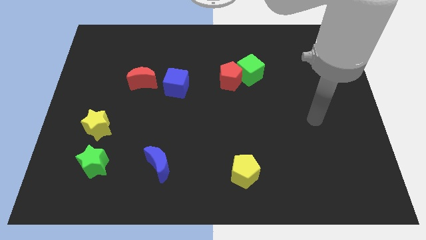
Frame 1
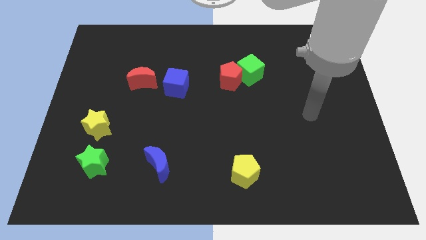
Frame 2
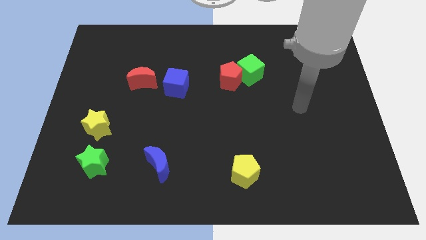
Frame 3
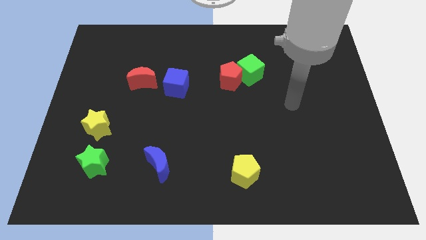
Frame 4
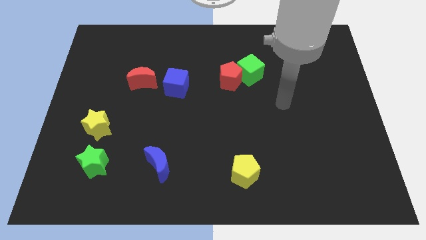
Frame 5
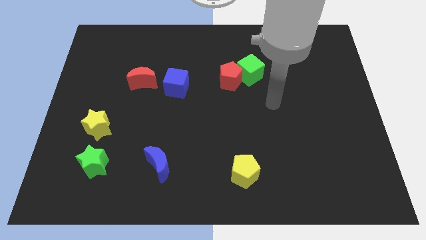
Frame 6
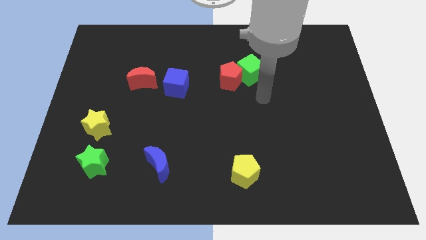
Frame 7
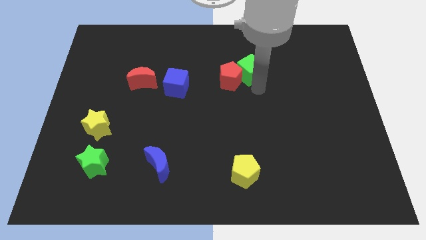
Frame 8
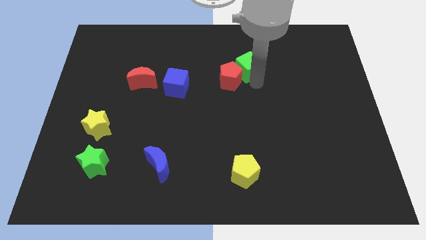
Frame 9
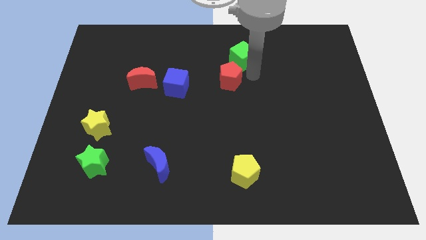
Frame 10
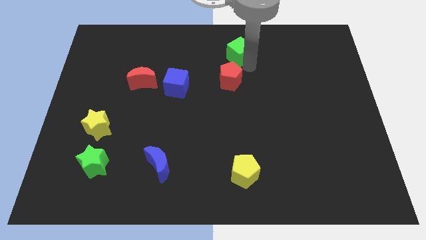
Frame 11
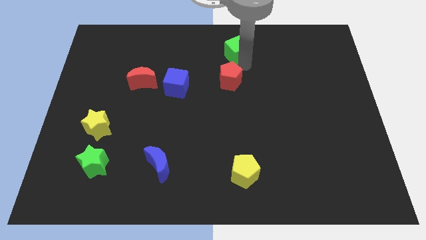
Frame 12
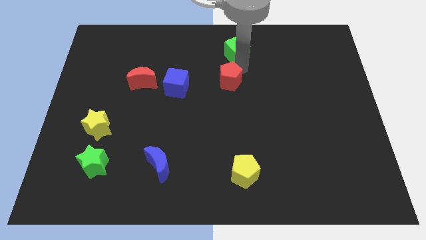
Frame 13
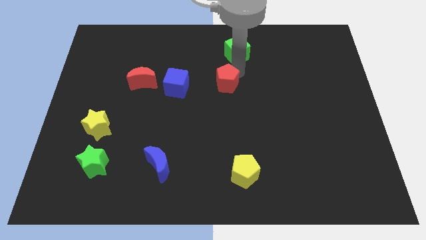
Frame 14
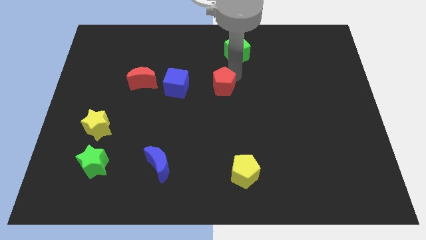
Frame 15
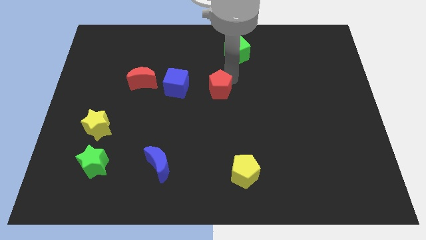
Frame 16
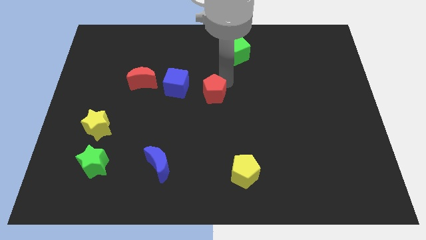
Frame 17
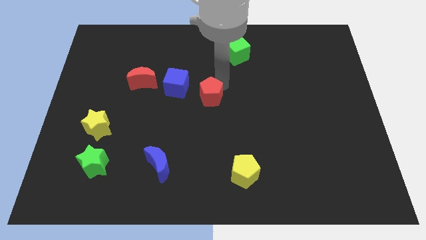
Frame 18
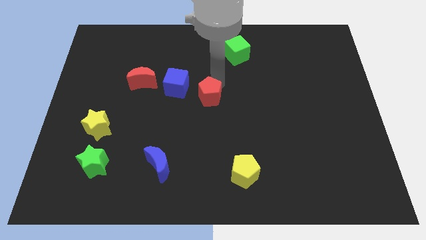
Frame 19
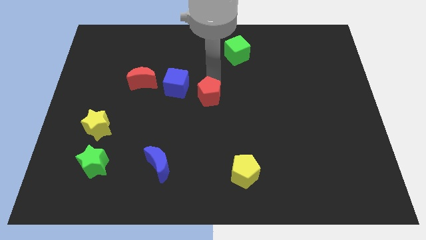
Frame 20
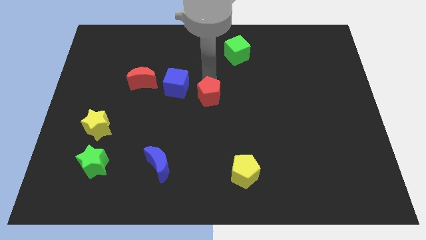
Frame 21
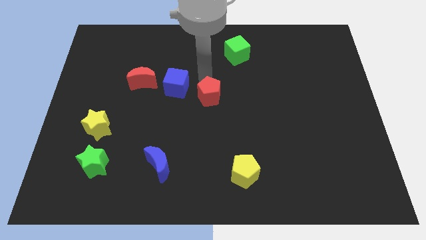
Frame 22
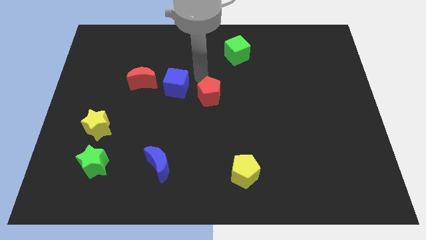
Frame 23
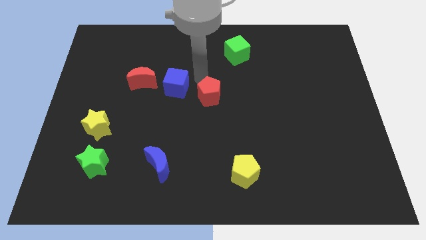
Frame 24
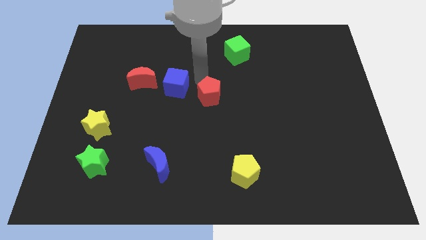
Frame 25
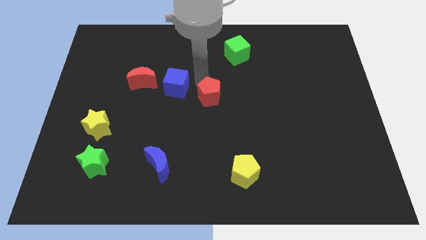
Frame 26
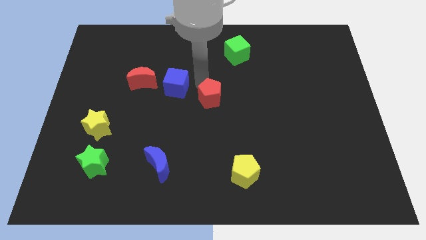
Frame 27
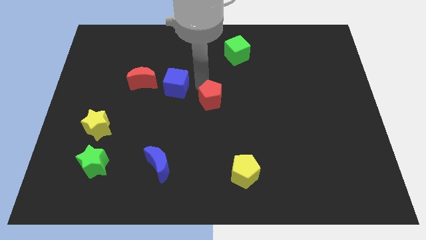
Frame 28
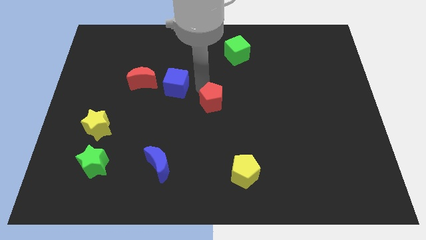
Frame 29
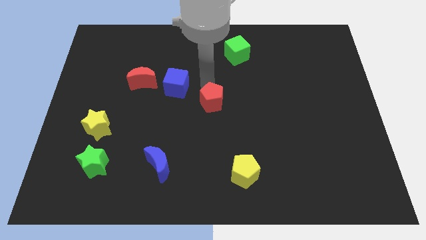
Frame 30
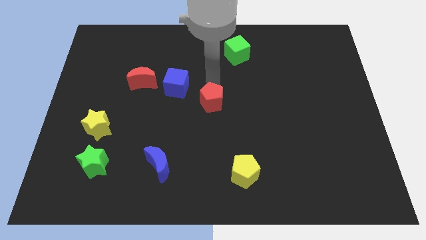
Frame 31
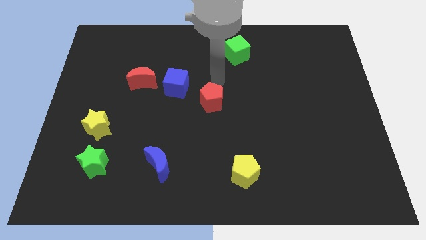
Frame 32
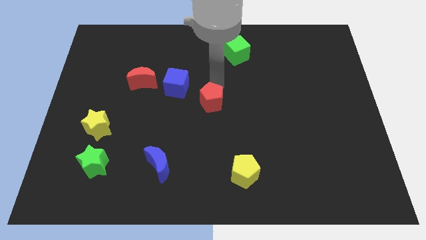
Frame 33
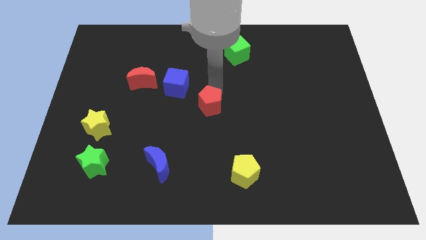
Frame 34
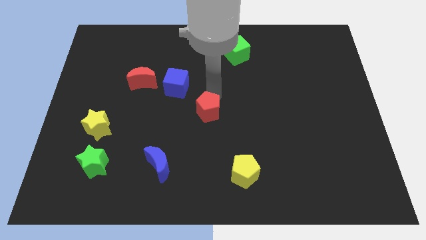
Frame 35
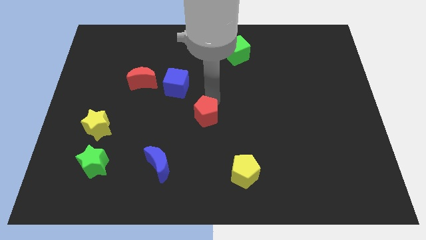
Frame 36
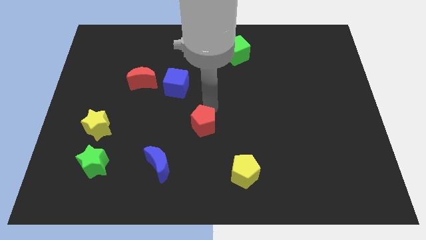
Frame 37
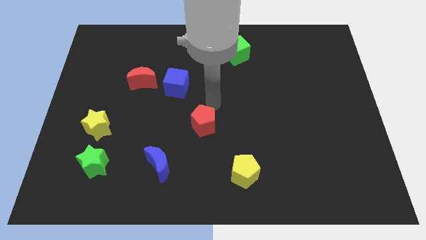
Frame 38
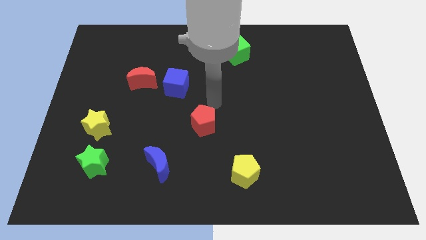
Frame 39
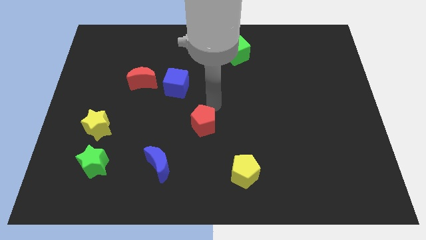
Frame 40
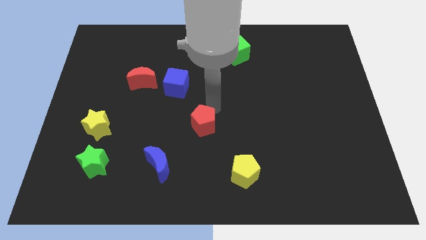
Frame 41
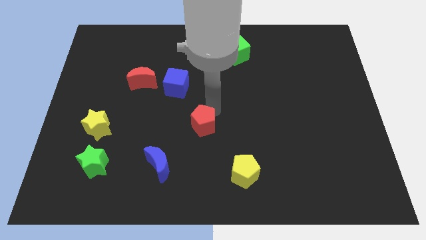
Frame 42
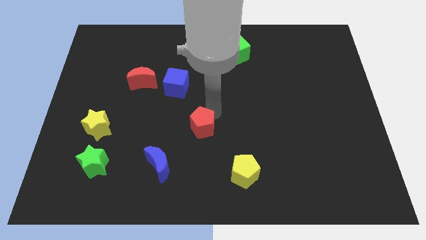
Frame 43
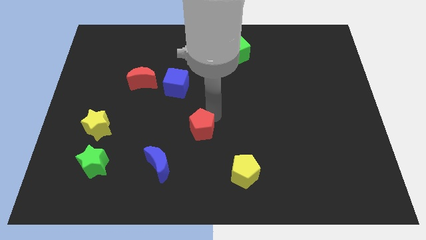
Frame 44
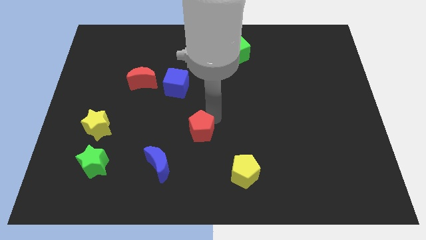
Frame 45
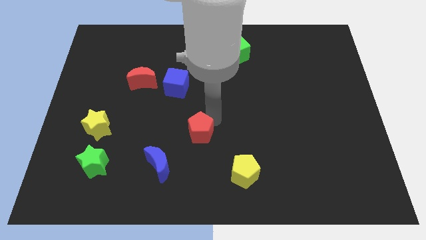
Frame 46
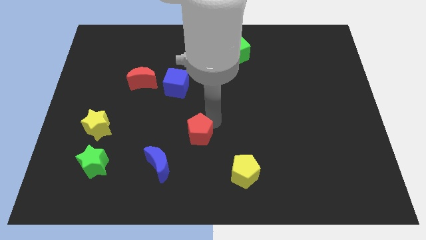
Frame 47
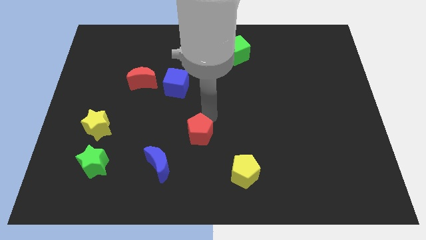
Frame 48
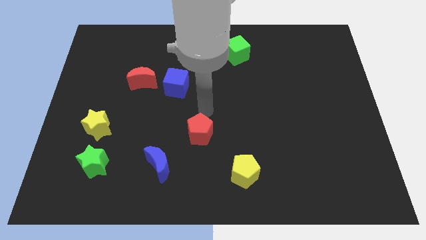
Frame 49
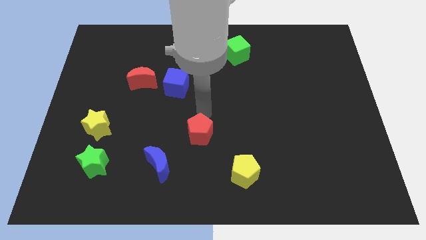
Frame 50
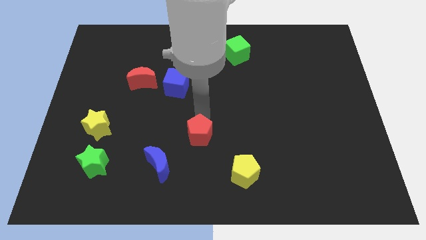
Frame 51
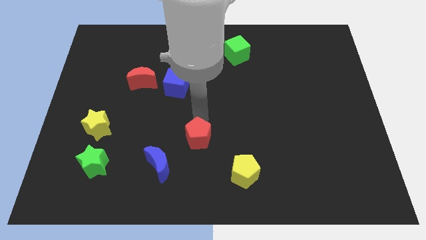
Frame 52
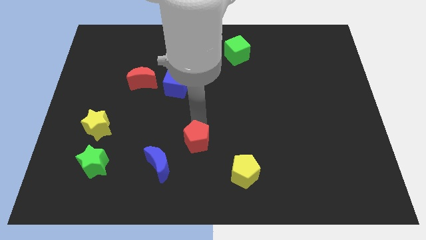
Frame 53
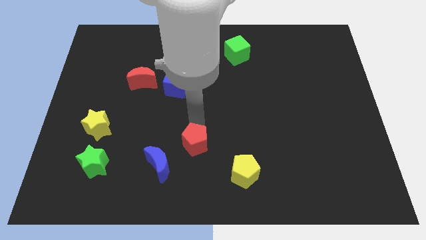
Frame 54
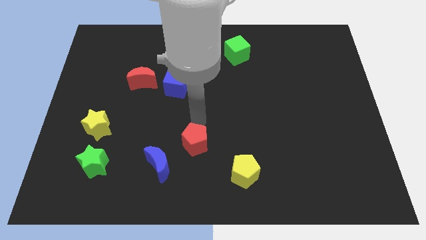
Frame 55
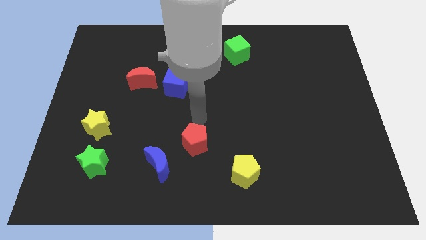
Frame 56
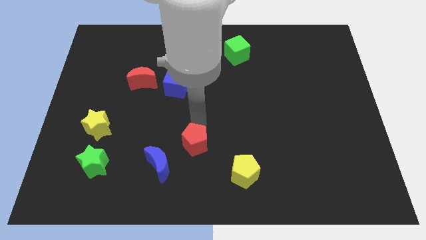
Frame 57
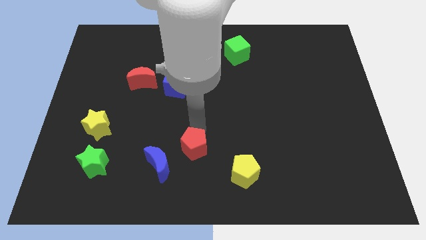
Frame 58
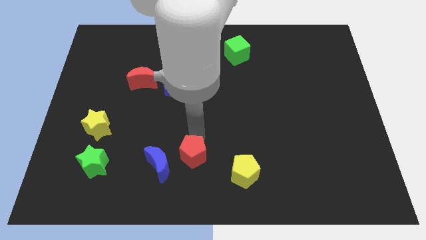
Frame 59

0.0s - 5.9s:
slide the red pentagon to the left side of the yellow pentagon

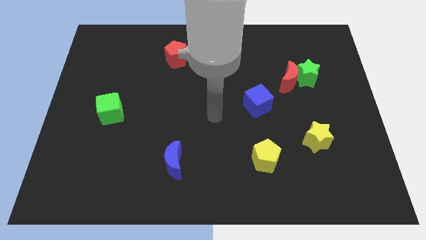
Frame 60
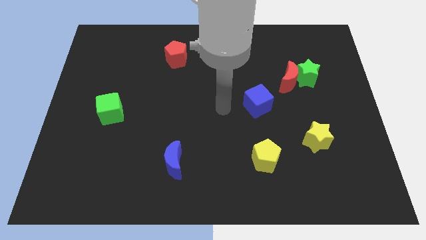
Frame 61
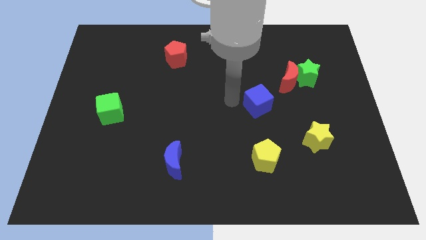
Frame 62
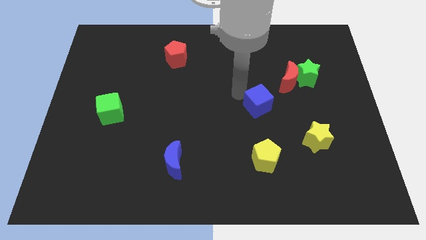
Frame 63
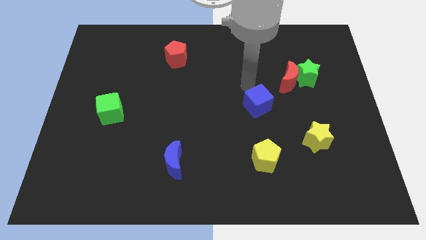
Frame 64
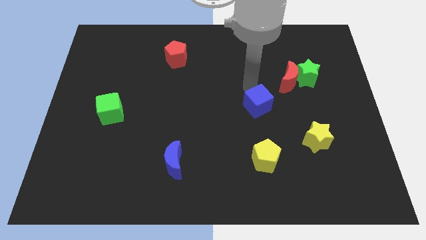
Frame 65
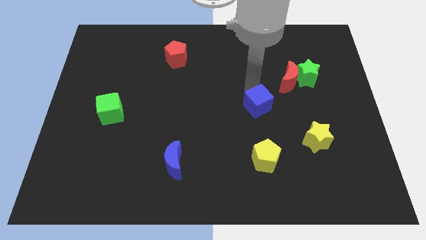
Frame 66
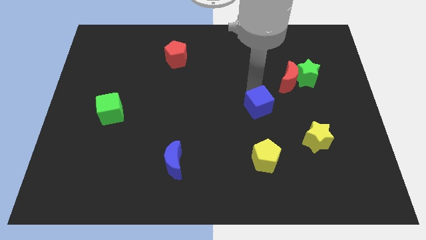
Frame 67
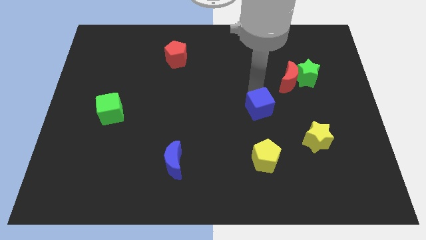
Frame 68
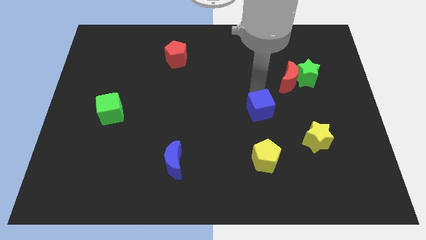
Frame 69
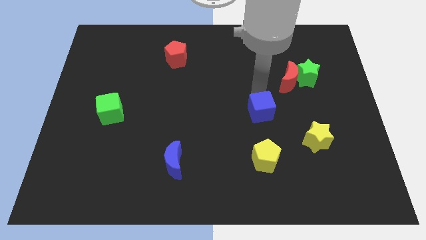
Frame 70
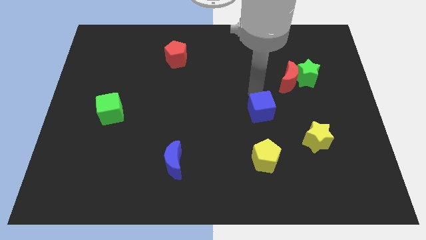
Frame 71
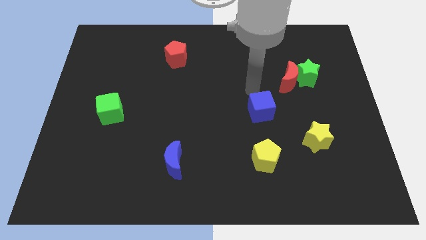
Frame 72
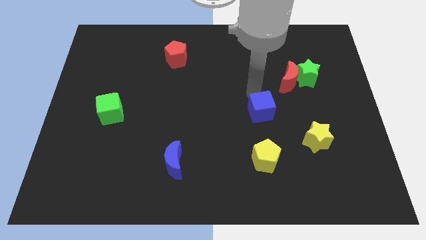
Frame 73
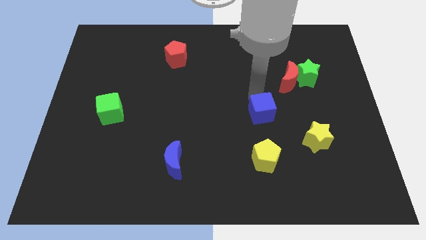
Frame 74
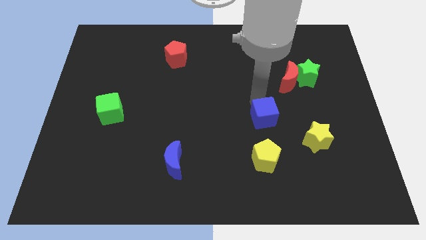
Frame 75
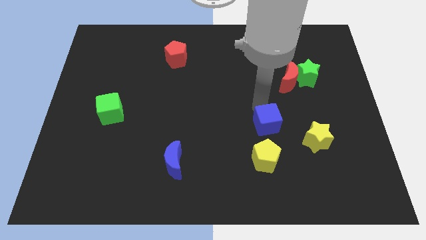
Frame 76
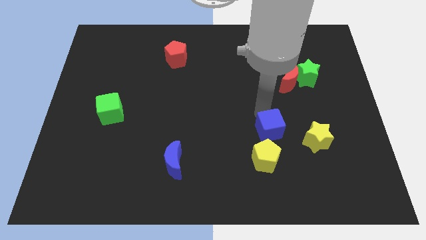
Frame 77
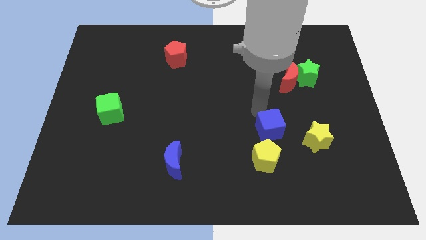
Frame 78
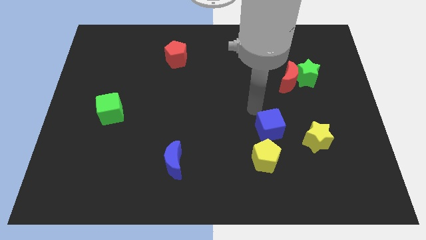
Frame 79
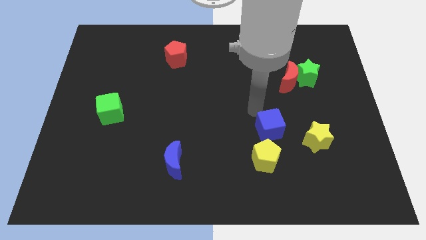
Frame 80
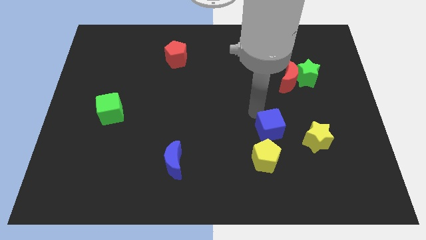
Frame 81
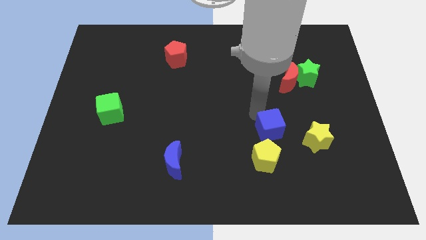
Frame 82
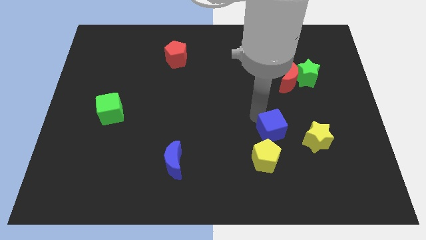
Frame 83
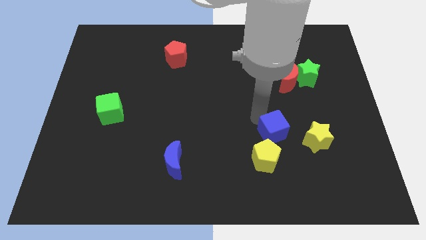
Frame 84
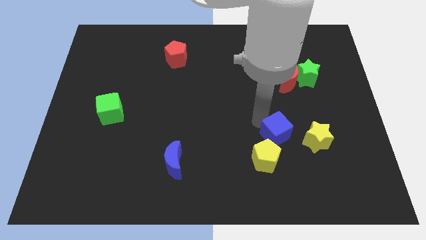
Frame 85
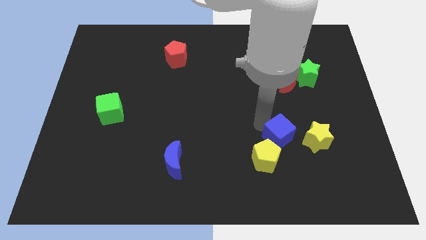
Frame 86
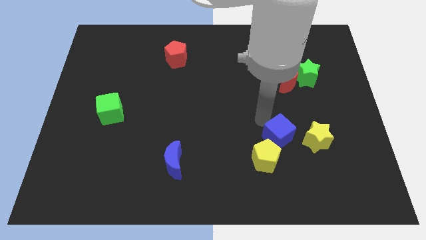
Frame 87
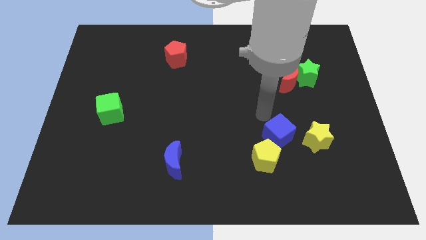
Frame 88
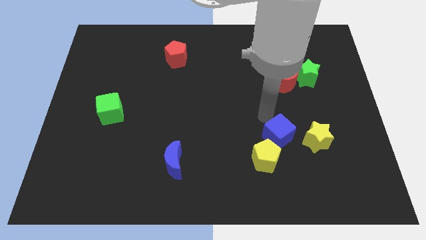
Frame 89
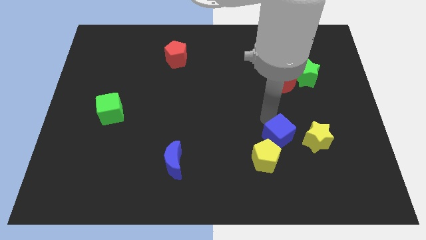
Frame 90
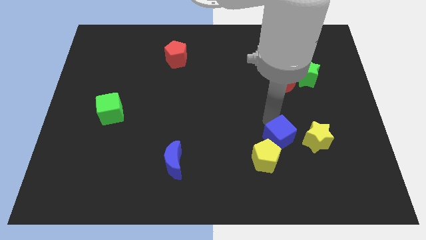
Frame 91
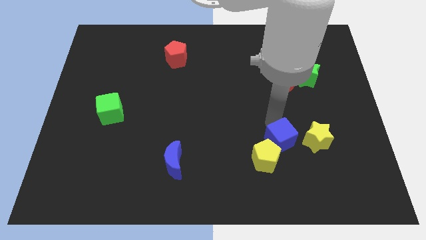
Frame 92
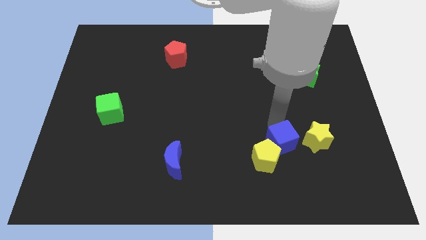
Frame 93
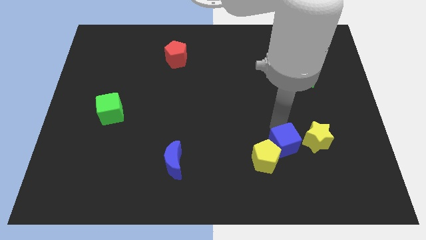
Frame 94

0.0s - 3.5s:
put the blue cube diagonally down and to the left of the yellow star
